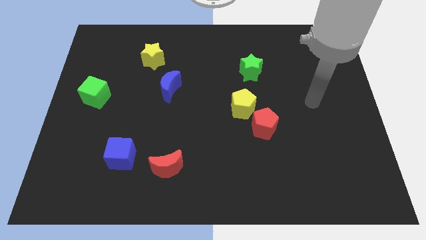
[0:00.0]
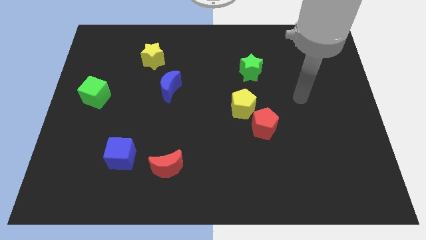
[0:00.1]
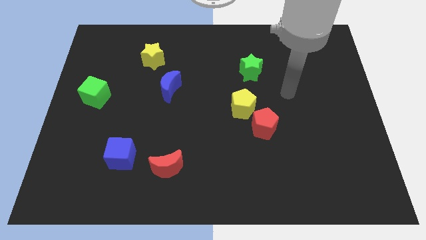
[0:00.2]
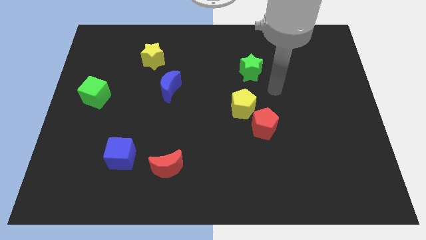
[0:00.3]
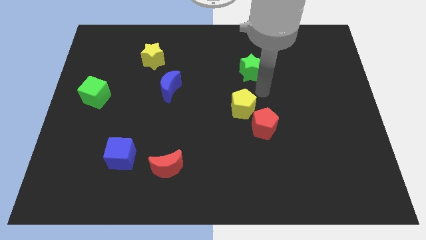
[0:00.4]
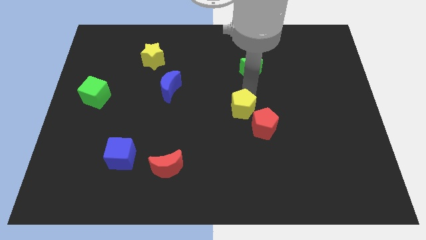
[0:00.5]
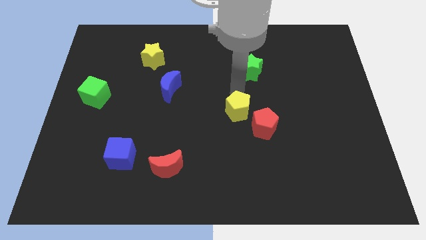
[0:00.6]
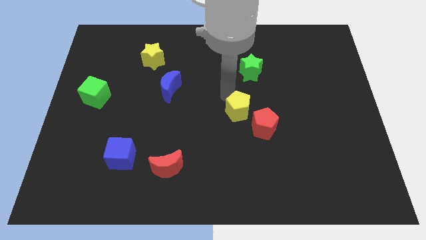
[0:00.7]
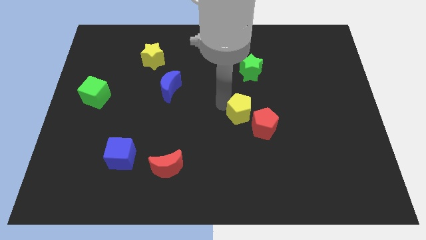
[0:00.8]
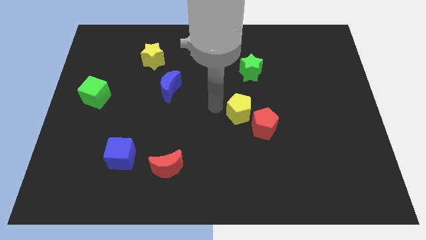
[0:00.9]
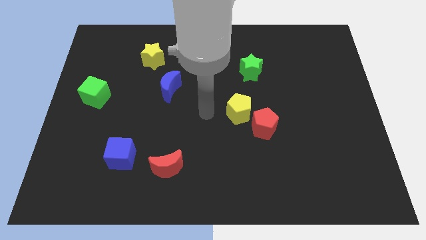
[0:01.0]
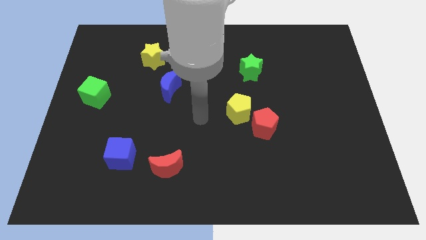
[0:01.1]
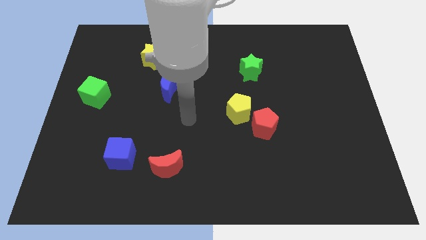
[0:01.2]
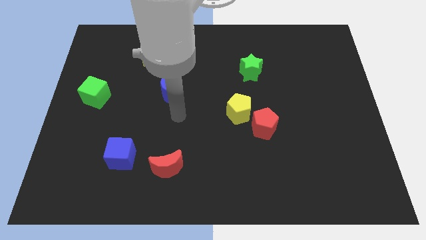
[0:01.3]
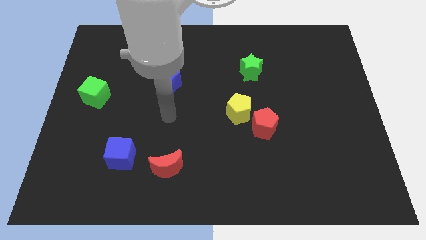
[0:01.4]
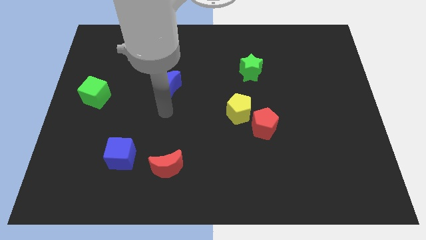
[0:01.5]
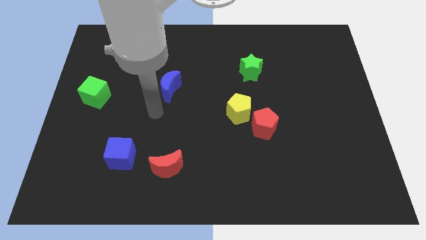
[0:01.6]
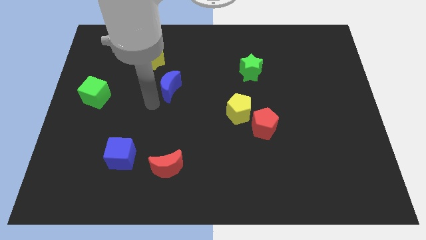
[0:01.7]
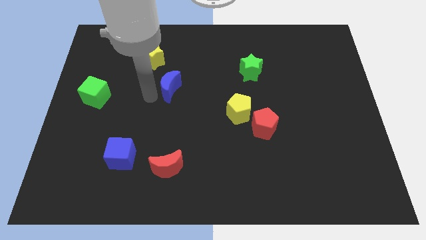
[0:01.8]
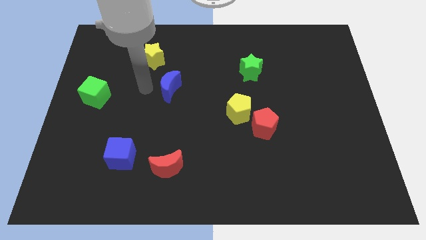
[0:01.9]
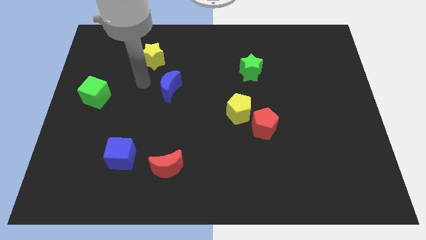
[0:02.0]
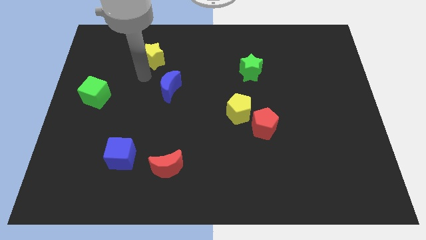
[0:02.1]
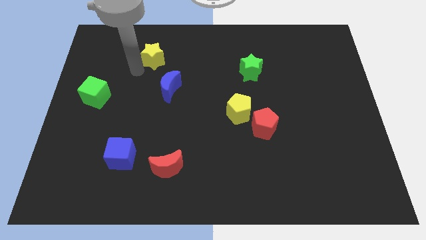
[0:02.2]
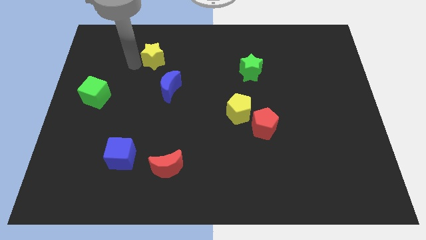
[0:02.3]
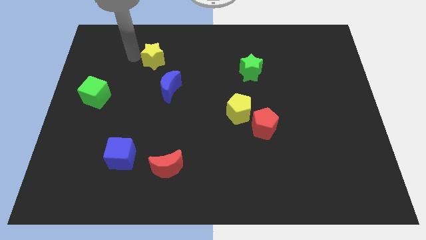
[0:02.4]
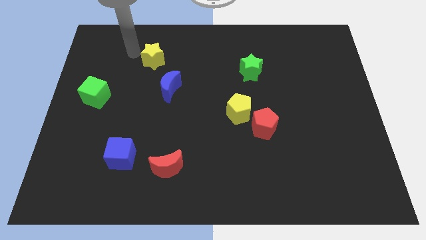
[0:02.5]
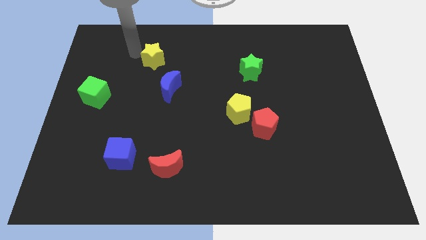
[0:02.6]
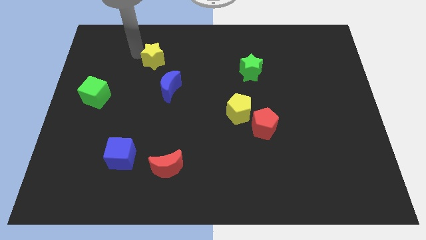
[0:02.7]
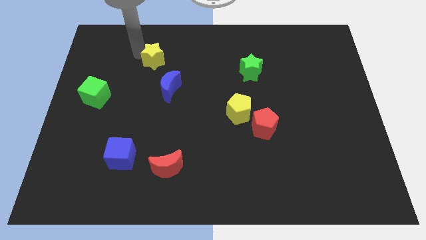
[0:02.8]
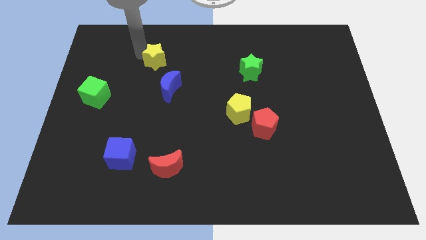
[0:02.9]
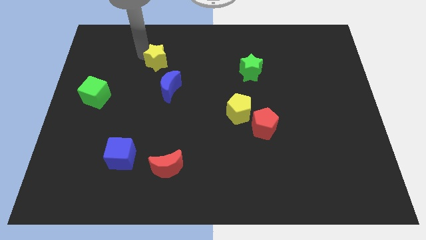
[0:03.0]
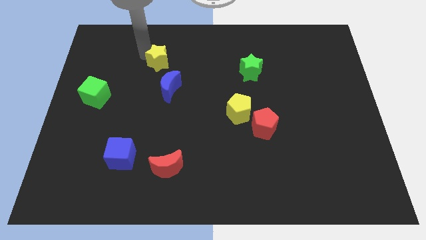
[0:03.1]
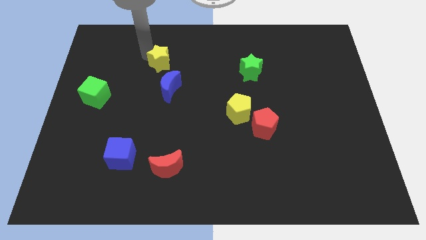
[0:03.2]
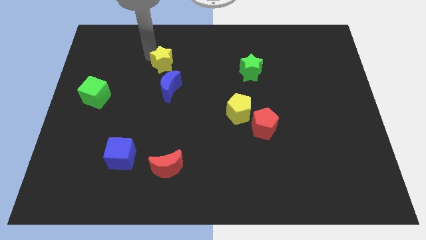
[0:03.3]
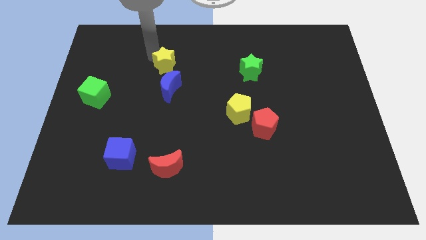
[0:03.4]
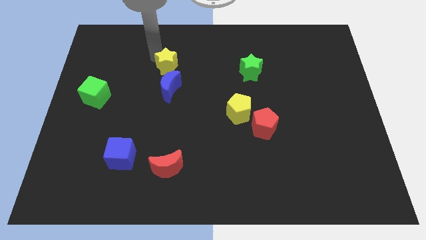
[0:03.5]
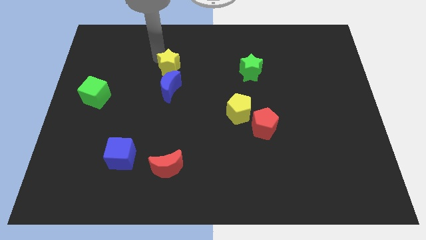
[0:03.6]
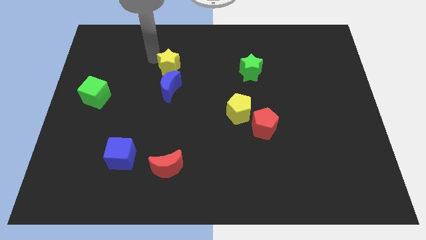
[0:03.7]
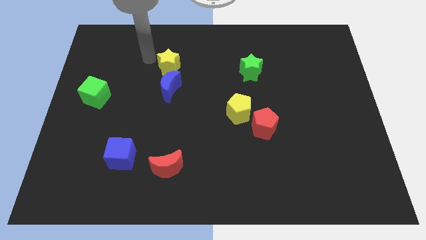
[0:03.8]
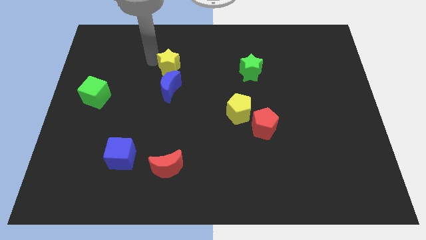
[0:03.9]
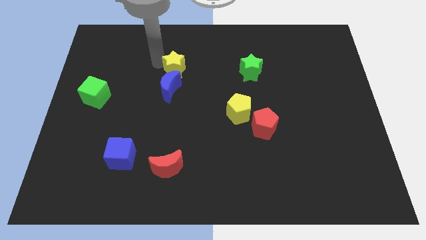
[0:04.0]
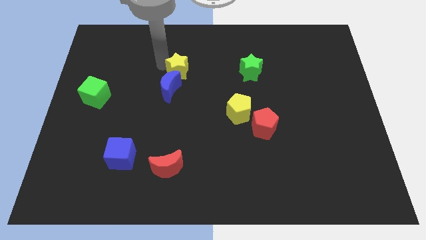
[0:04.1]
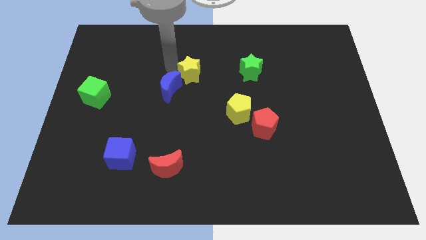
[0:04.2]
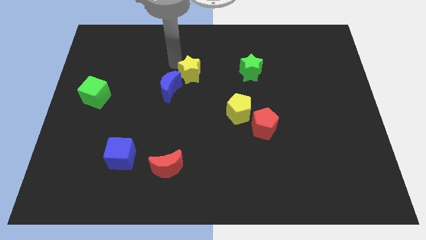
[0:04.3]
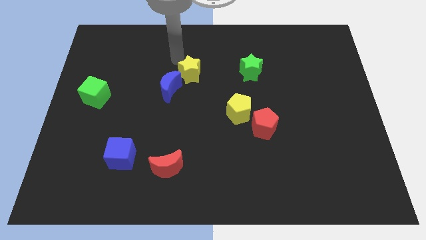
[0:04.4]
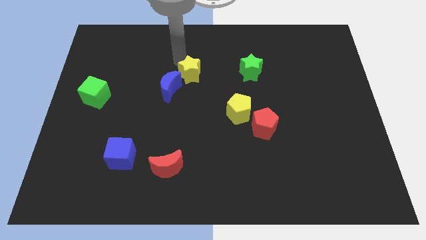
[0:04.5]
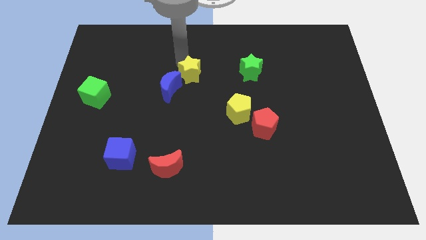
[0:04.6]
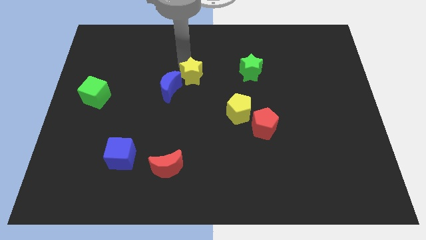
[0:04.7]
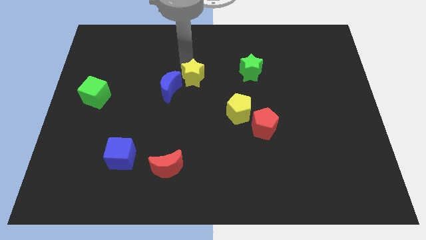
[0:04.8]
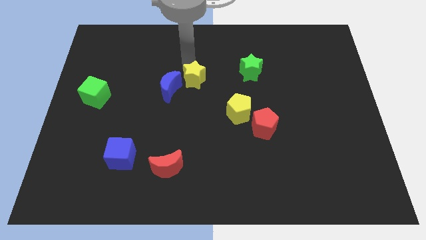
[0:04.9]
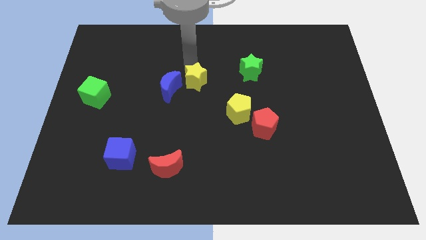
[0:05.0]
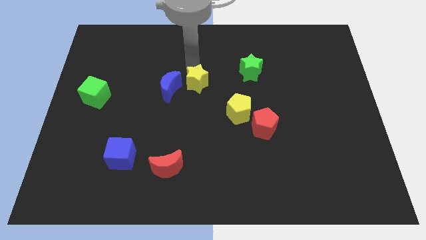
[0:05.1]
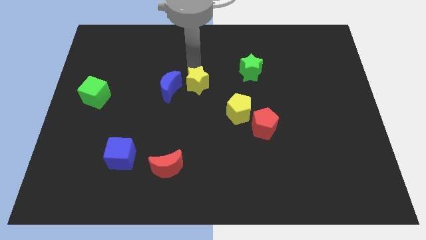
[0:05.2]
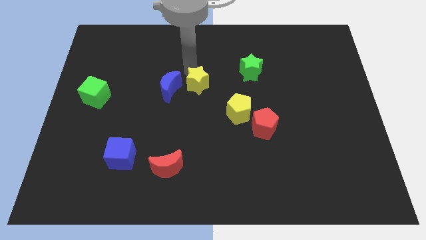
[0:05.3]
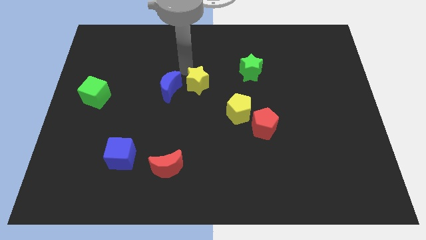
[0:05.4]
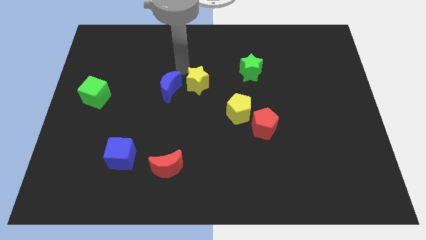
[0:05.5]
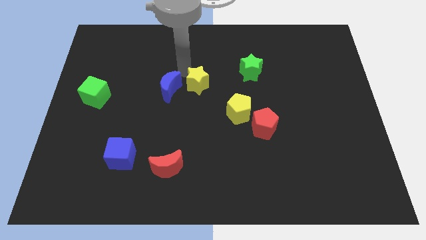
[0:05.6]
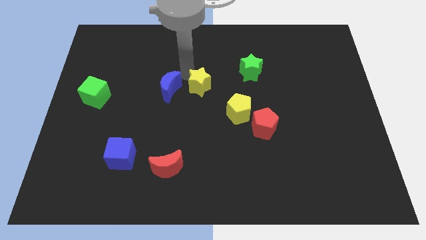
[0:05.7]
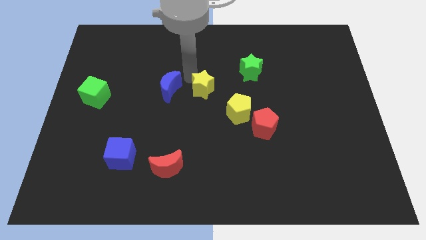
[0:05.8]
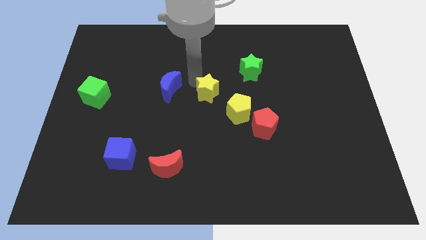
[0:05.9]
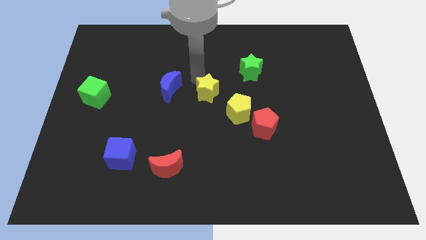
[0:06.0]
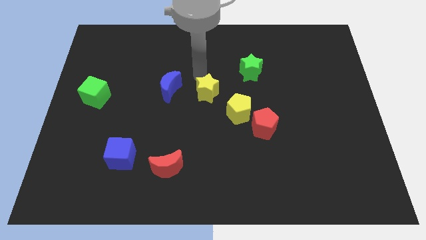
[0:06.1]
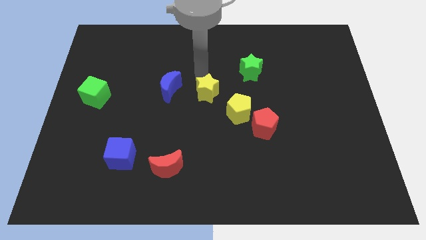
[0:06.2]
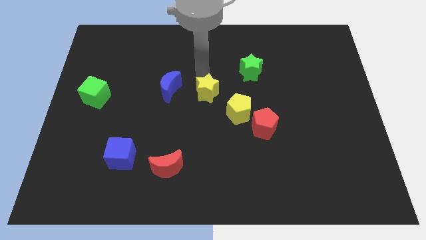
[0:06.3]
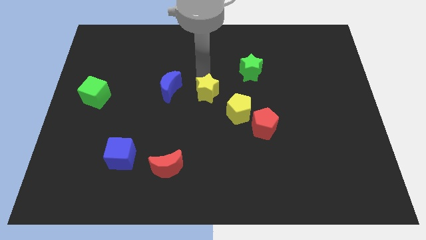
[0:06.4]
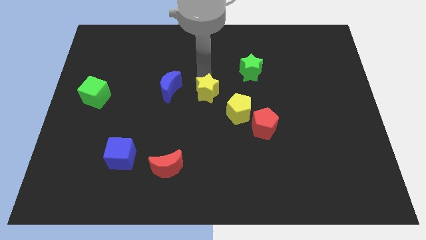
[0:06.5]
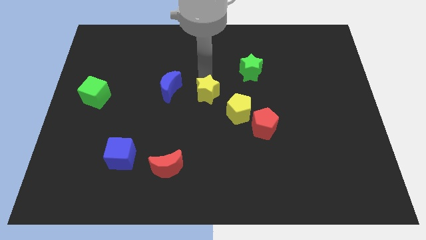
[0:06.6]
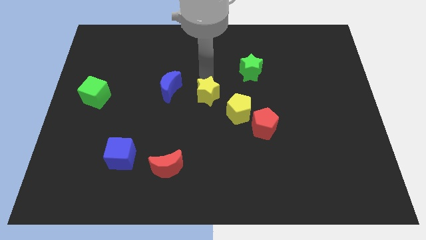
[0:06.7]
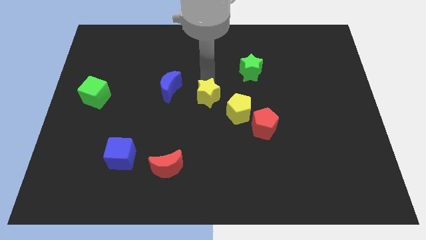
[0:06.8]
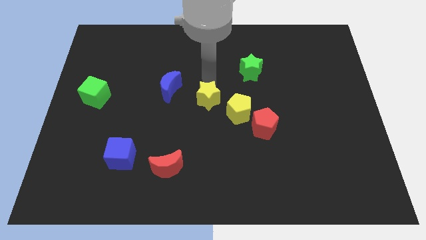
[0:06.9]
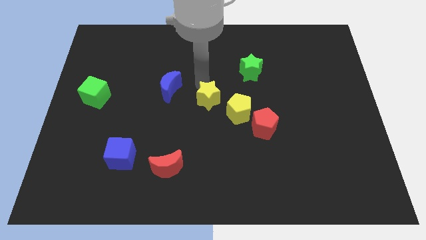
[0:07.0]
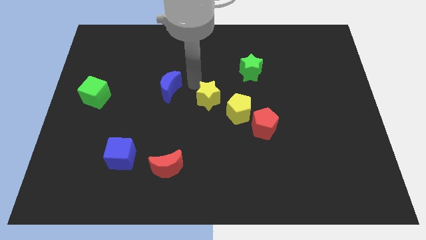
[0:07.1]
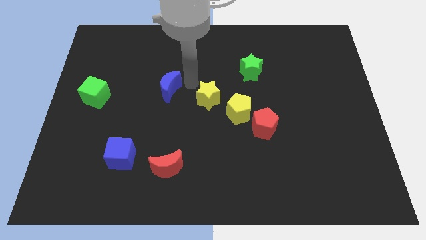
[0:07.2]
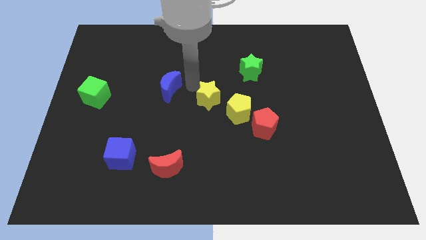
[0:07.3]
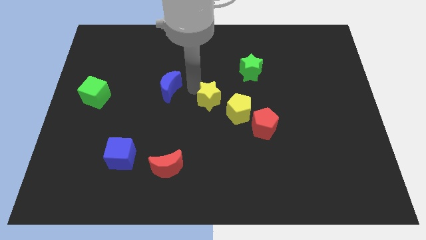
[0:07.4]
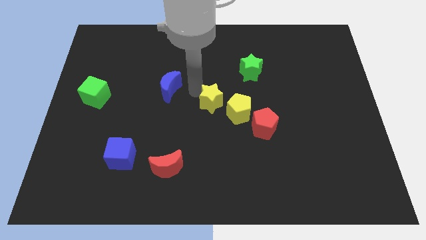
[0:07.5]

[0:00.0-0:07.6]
move the yellow star down and then to the right
